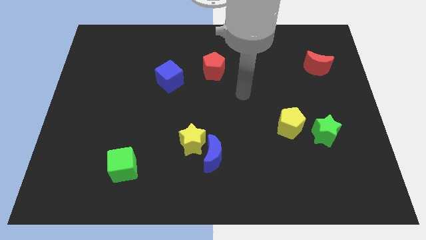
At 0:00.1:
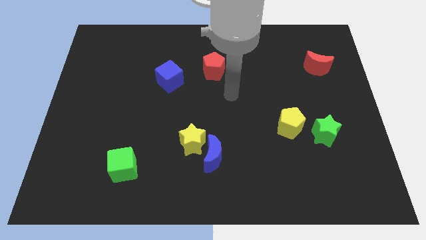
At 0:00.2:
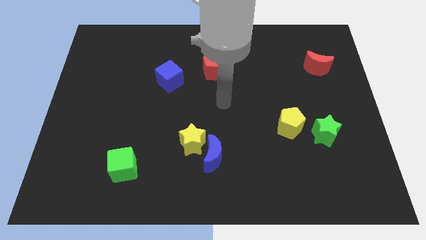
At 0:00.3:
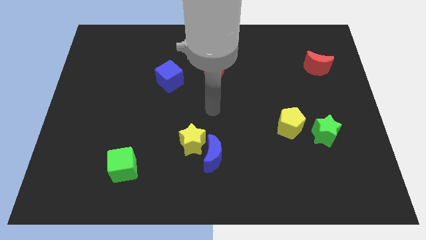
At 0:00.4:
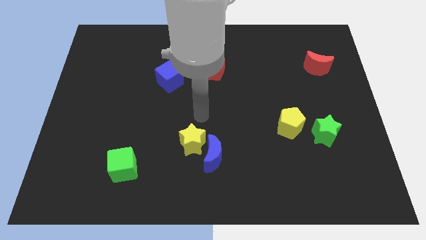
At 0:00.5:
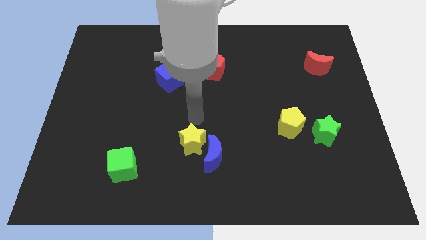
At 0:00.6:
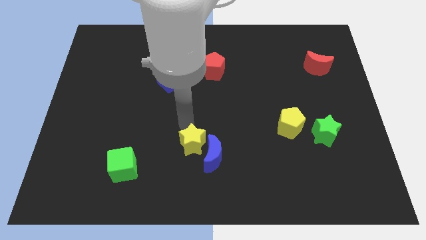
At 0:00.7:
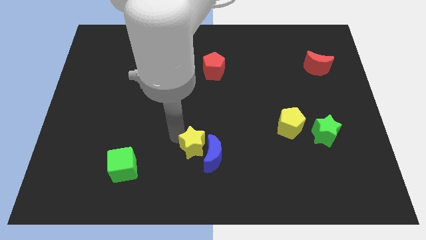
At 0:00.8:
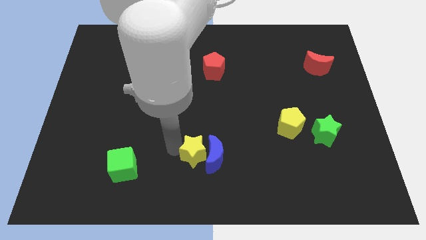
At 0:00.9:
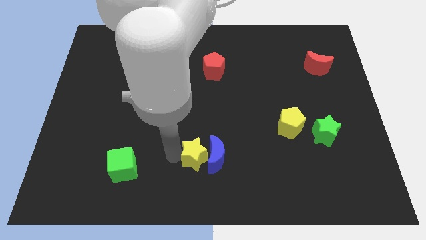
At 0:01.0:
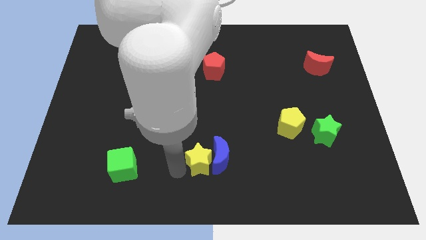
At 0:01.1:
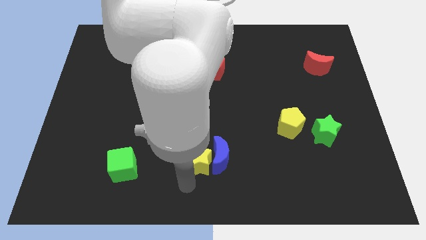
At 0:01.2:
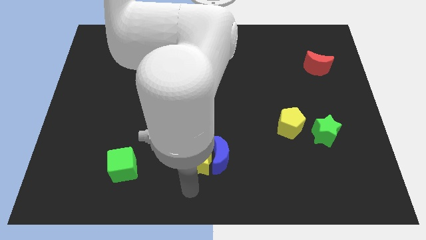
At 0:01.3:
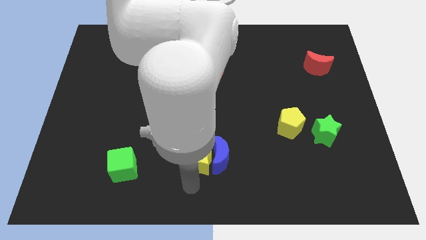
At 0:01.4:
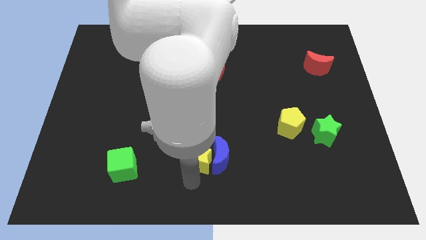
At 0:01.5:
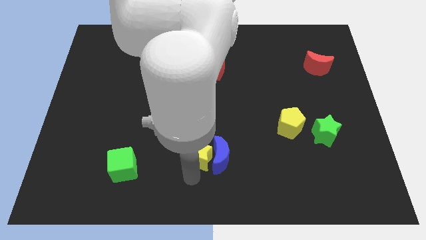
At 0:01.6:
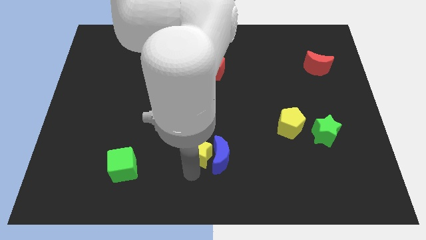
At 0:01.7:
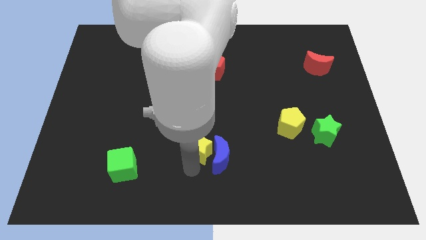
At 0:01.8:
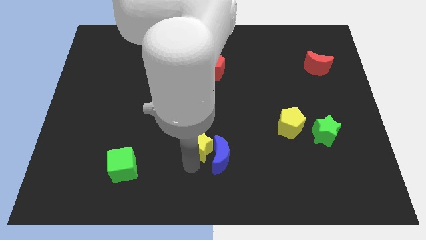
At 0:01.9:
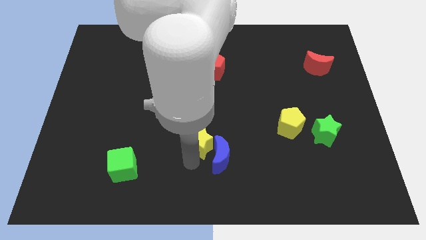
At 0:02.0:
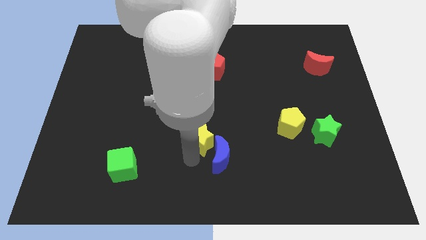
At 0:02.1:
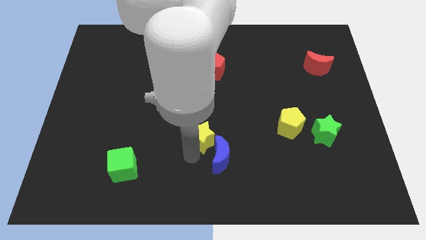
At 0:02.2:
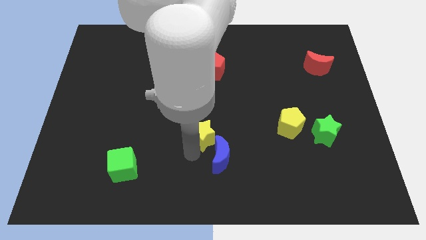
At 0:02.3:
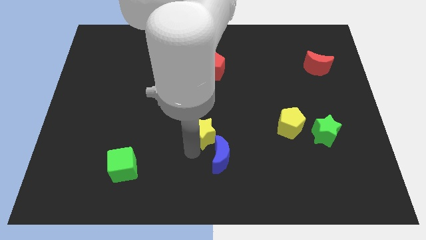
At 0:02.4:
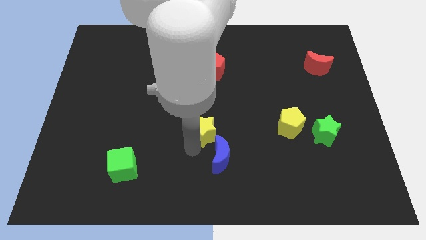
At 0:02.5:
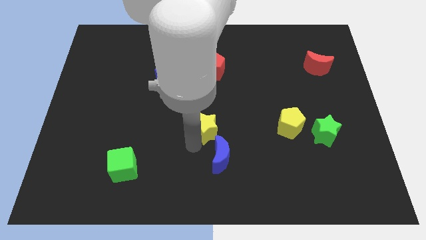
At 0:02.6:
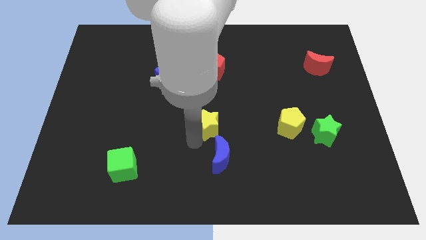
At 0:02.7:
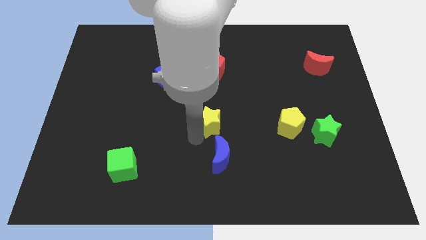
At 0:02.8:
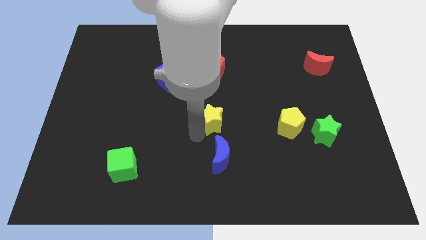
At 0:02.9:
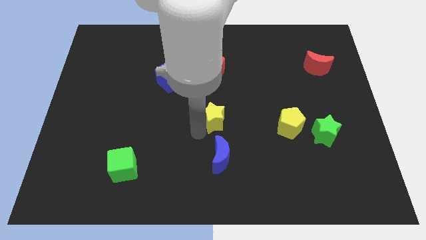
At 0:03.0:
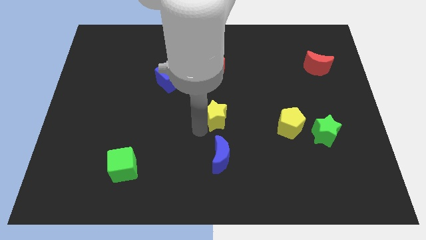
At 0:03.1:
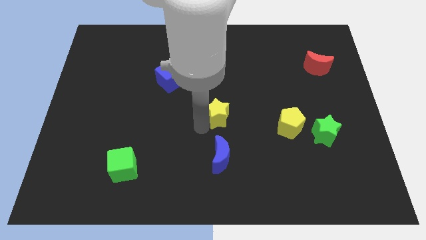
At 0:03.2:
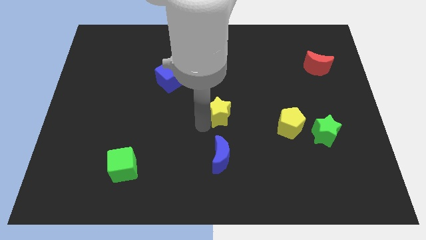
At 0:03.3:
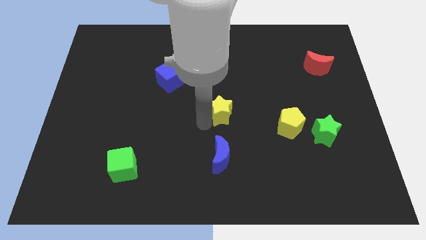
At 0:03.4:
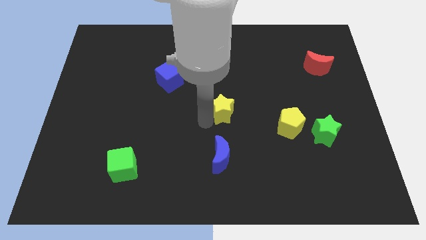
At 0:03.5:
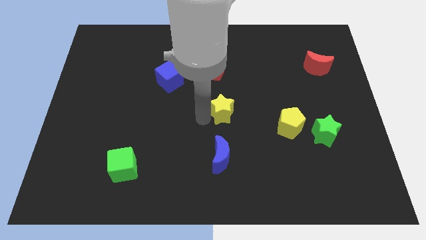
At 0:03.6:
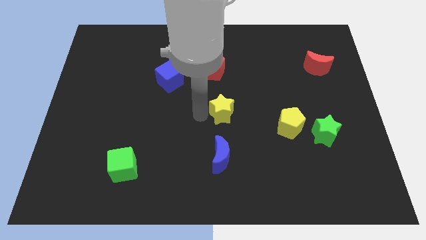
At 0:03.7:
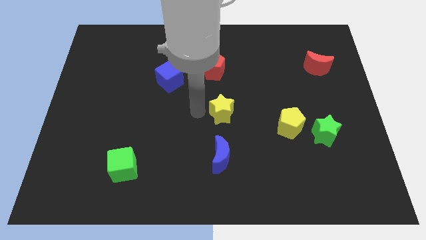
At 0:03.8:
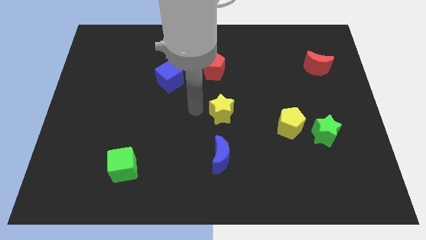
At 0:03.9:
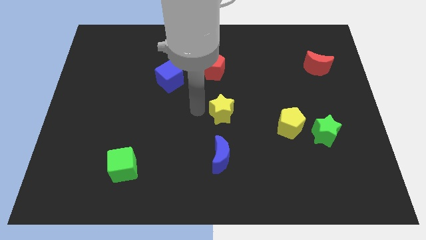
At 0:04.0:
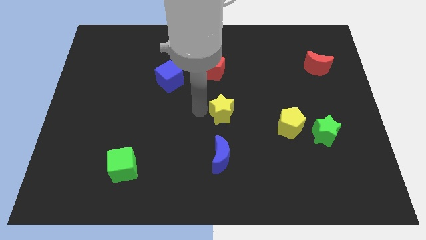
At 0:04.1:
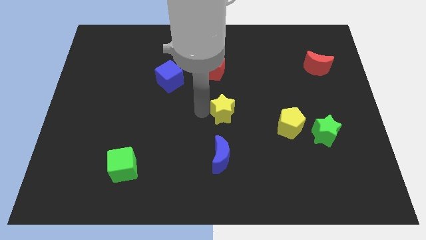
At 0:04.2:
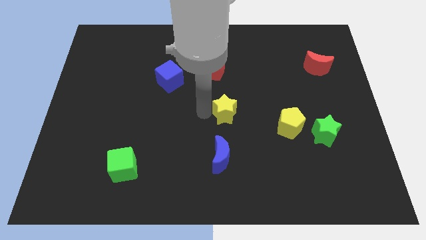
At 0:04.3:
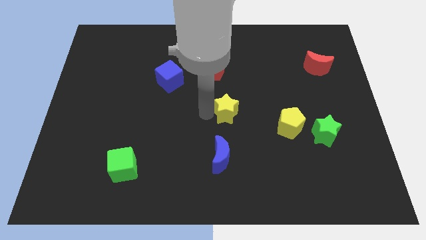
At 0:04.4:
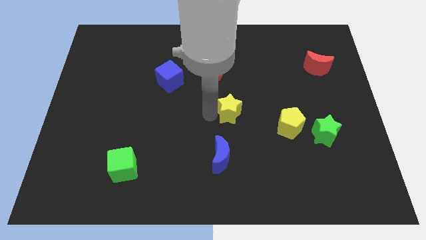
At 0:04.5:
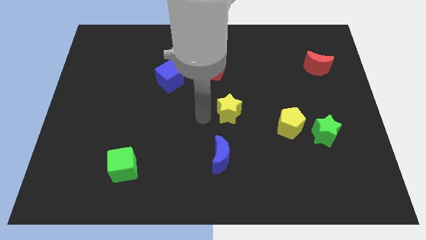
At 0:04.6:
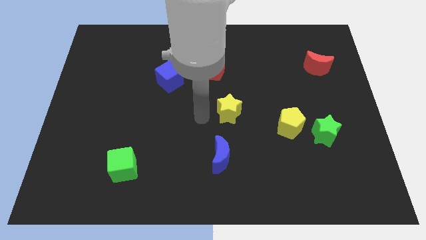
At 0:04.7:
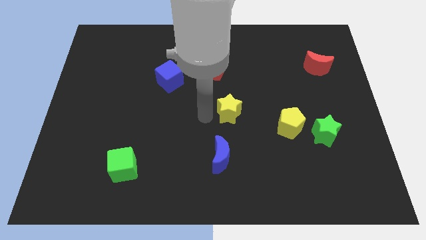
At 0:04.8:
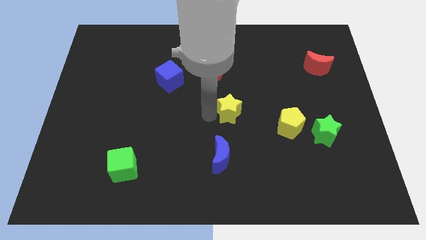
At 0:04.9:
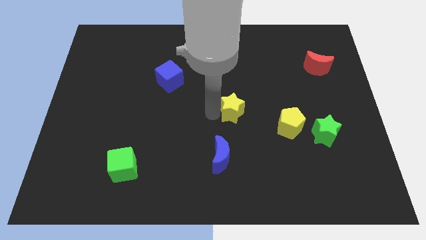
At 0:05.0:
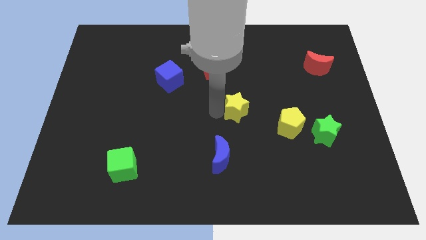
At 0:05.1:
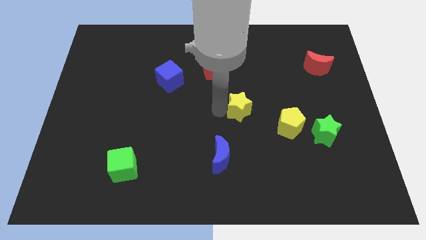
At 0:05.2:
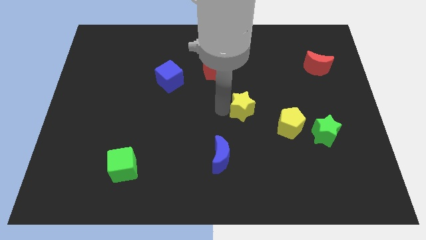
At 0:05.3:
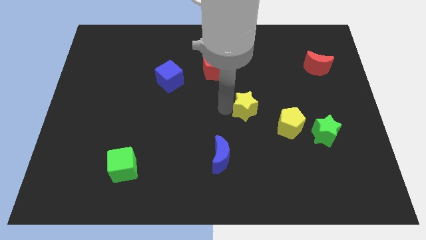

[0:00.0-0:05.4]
slide the yellow star to the top left of the yellow pentagon

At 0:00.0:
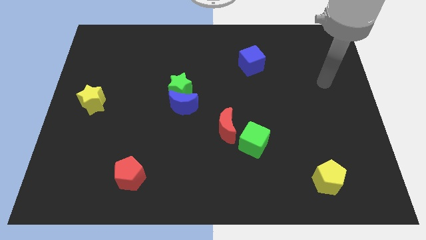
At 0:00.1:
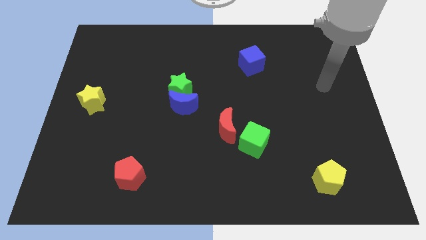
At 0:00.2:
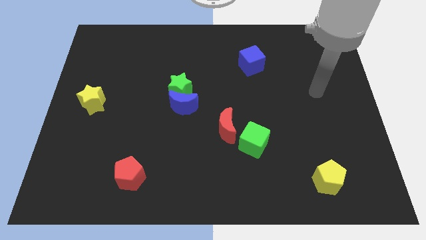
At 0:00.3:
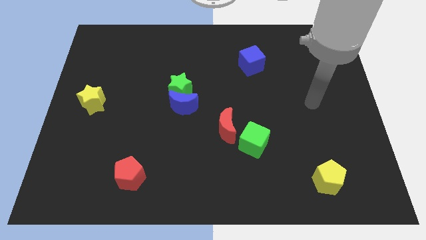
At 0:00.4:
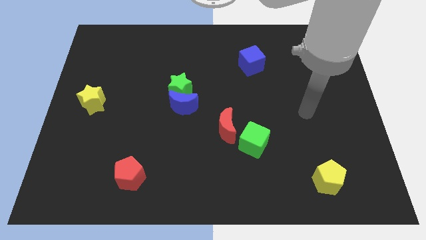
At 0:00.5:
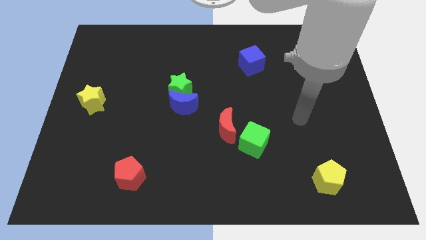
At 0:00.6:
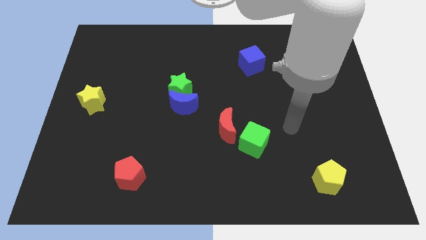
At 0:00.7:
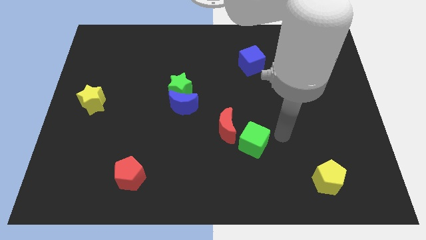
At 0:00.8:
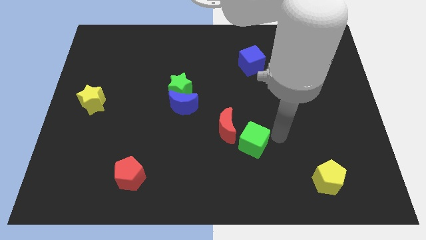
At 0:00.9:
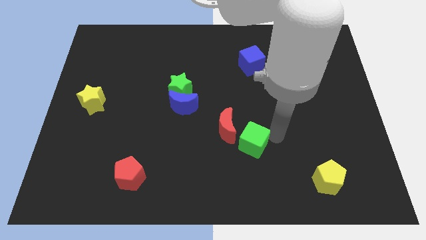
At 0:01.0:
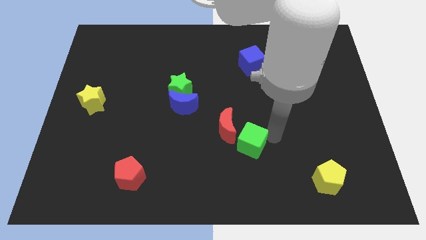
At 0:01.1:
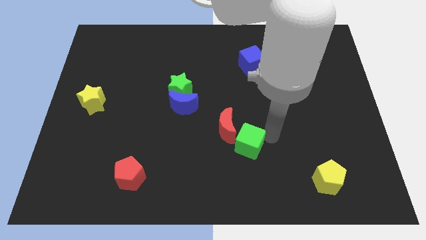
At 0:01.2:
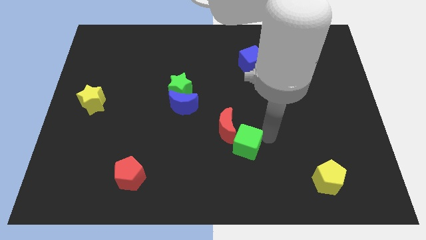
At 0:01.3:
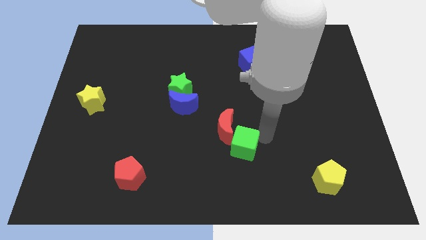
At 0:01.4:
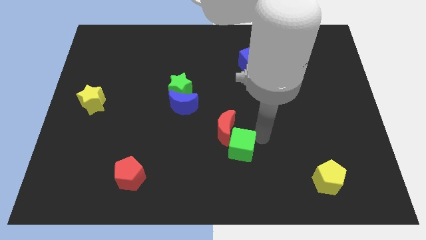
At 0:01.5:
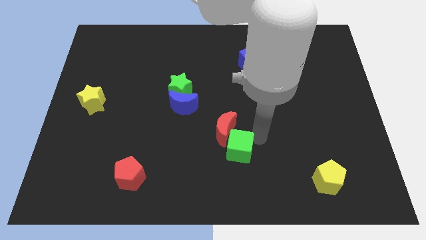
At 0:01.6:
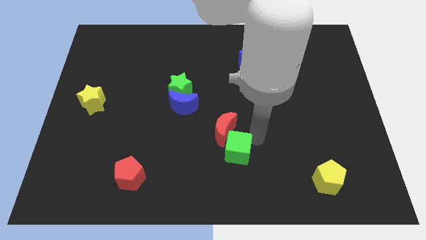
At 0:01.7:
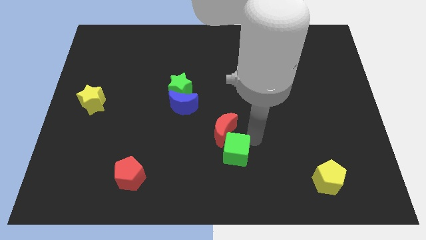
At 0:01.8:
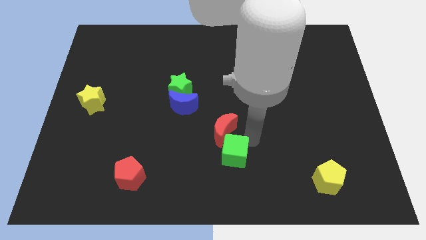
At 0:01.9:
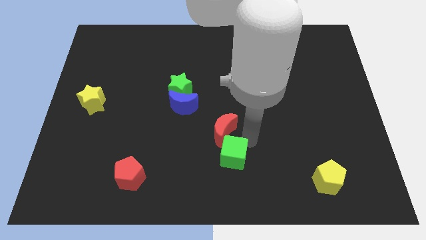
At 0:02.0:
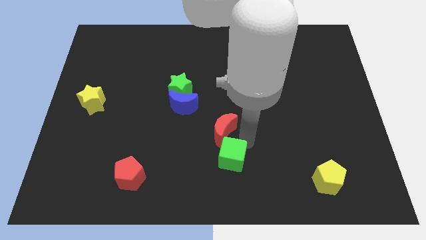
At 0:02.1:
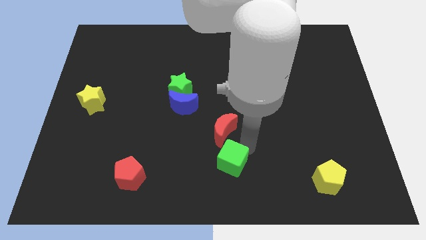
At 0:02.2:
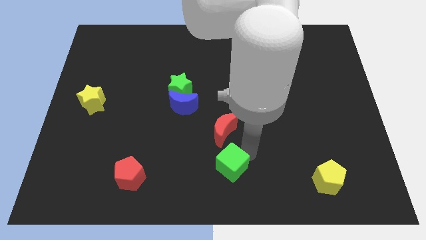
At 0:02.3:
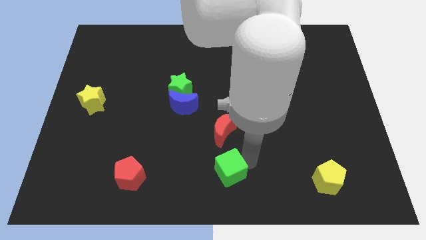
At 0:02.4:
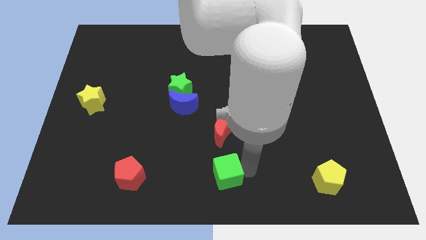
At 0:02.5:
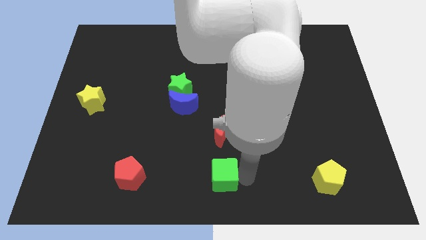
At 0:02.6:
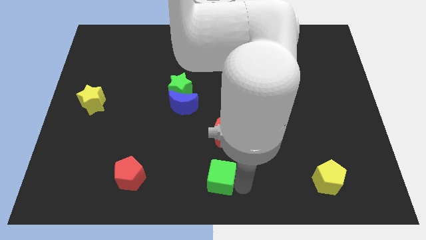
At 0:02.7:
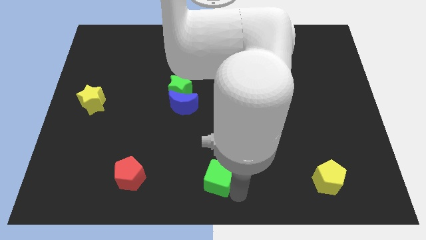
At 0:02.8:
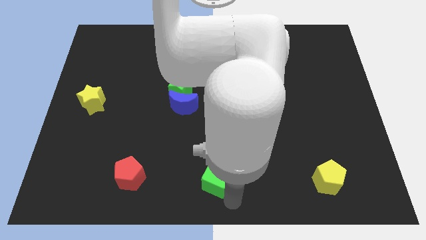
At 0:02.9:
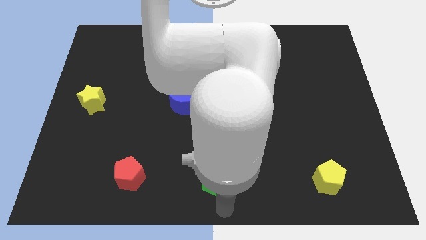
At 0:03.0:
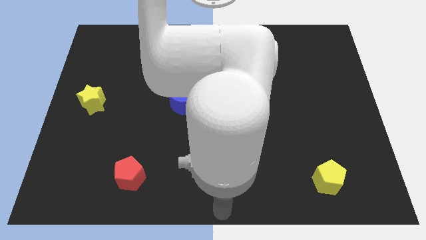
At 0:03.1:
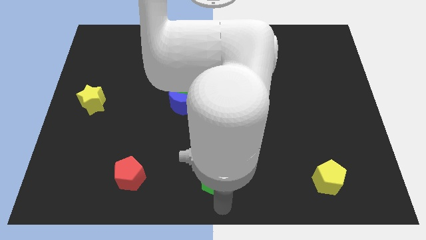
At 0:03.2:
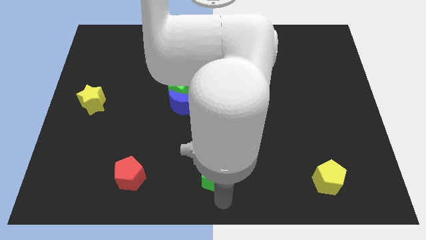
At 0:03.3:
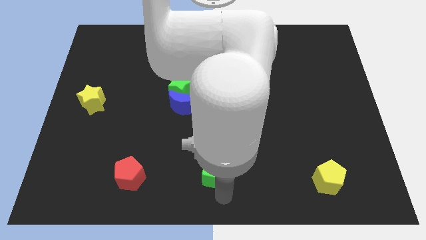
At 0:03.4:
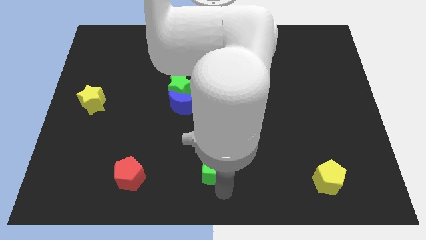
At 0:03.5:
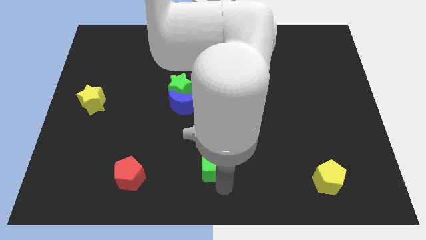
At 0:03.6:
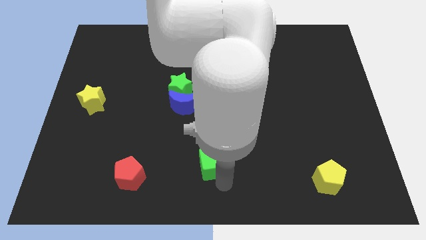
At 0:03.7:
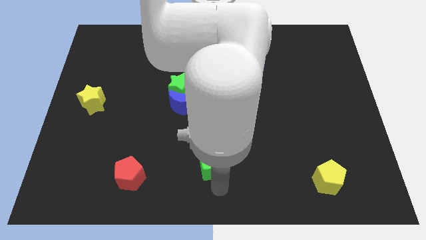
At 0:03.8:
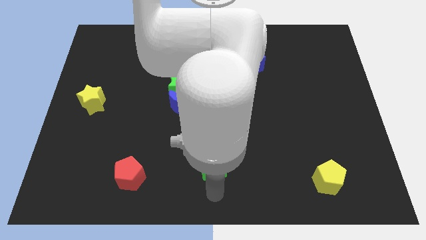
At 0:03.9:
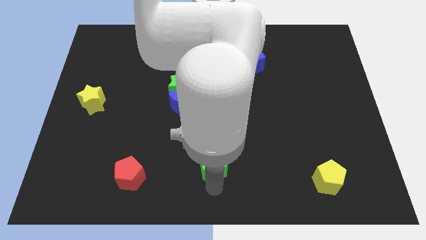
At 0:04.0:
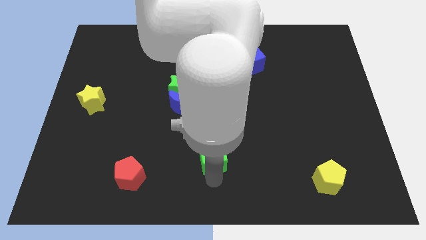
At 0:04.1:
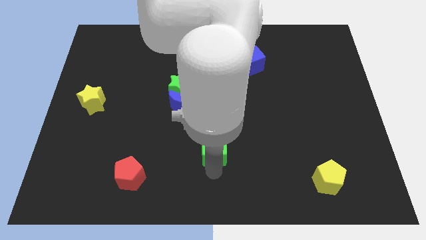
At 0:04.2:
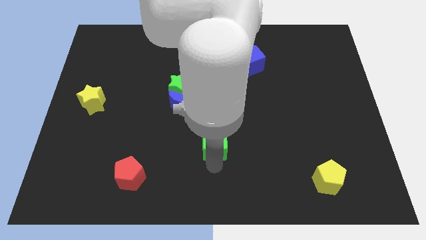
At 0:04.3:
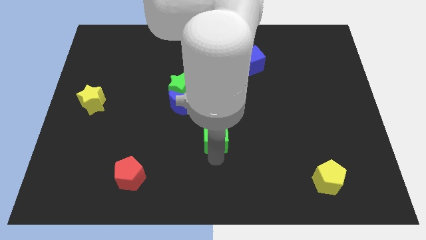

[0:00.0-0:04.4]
move the green cube to the bottom right side of the blue moon
